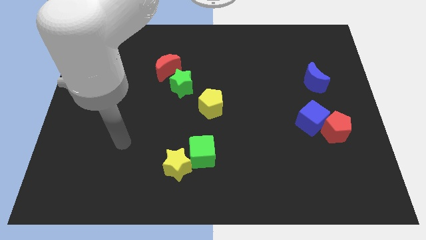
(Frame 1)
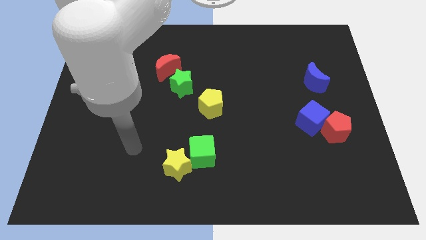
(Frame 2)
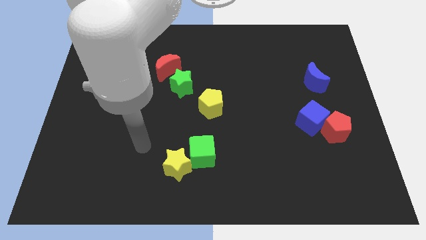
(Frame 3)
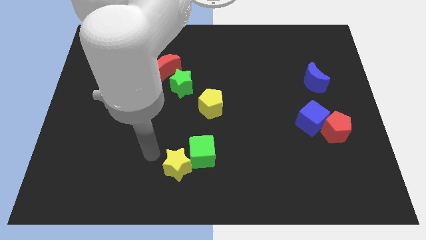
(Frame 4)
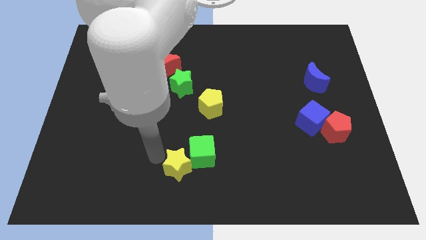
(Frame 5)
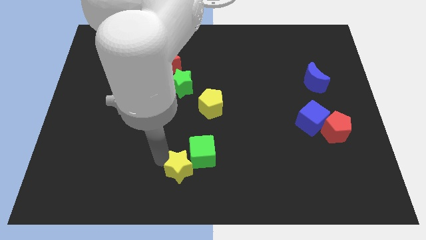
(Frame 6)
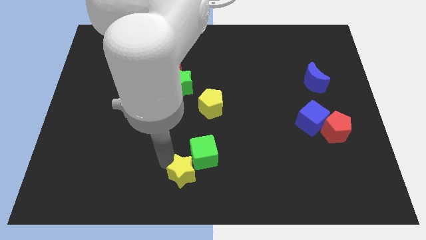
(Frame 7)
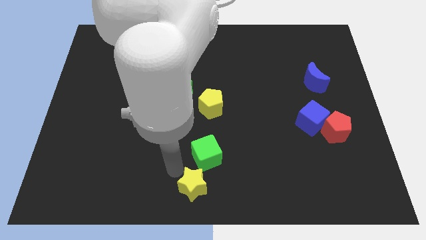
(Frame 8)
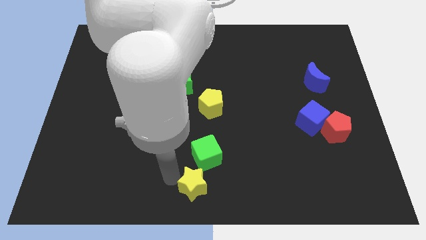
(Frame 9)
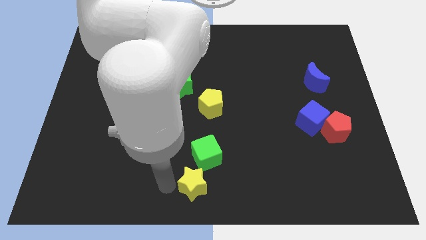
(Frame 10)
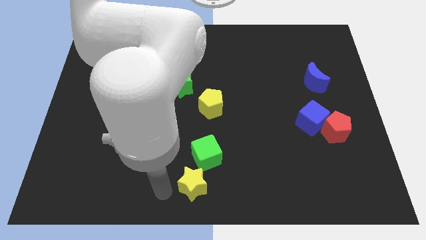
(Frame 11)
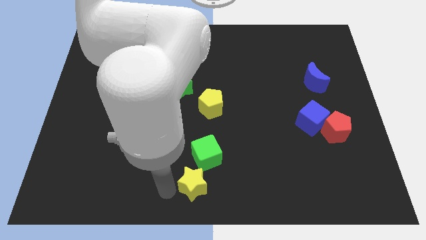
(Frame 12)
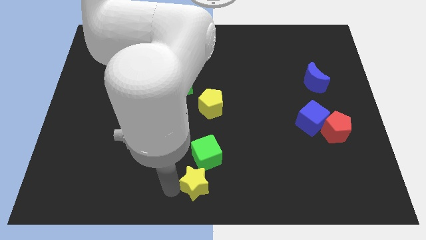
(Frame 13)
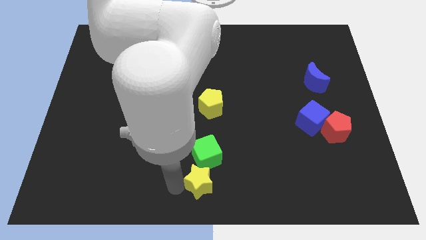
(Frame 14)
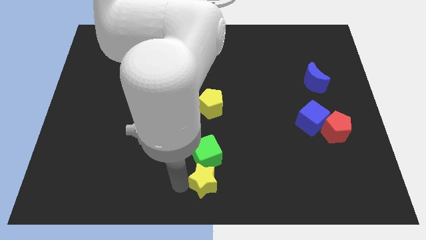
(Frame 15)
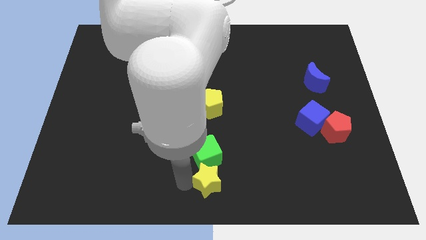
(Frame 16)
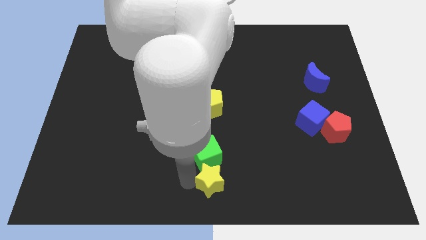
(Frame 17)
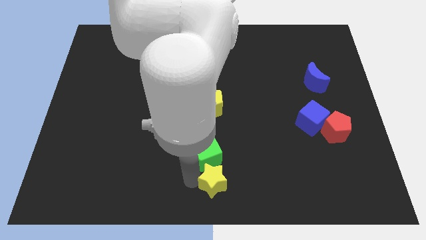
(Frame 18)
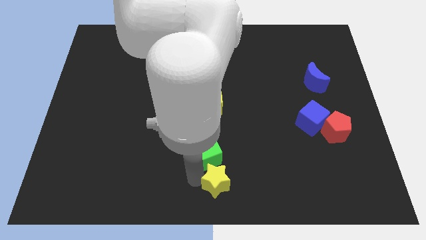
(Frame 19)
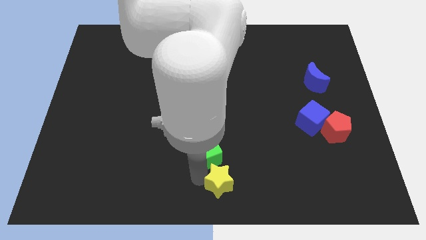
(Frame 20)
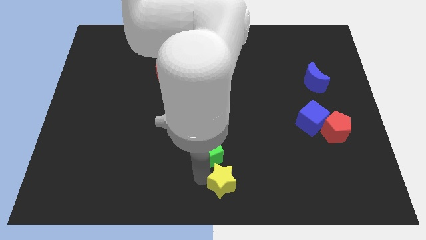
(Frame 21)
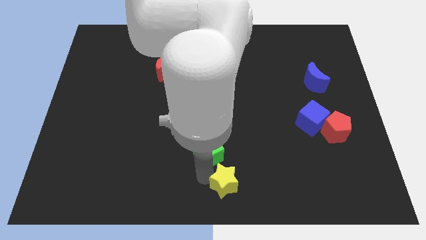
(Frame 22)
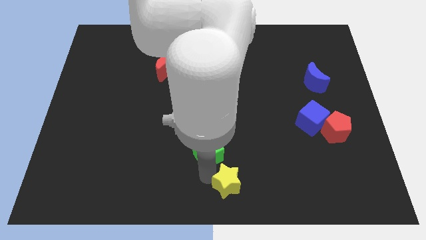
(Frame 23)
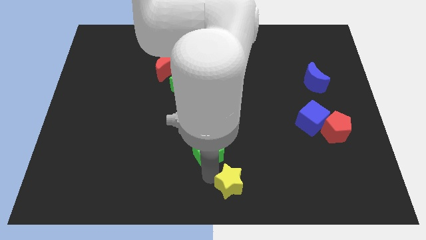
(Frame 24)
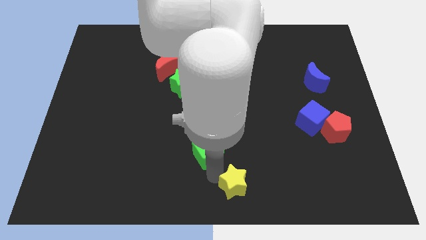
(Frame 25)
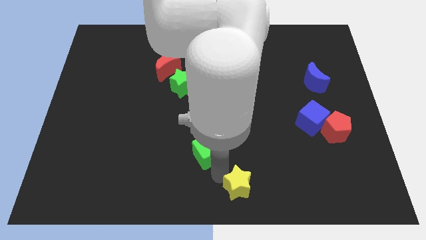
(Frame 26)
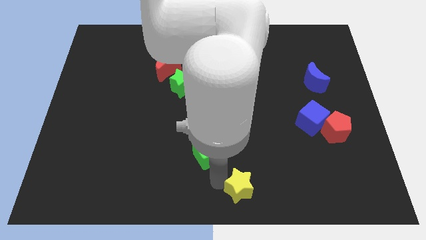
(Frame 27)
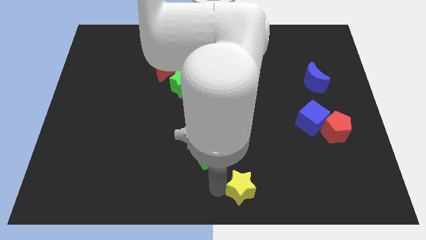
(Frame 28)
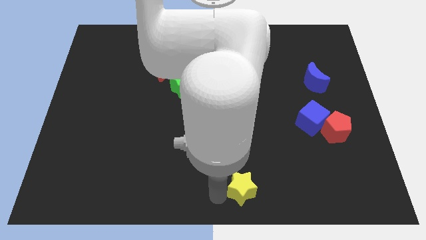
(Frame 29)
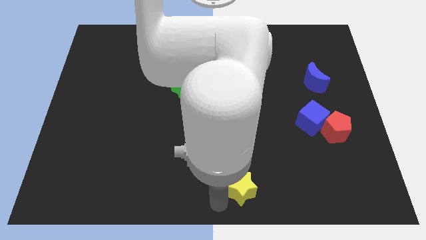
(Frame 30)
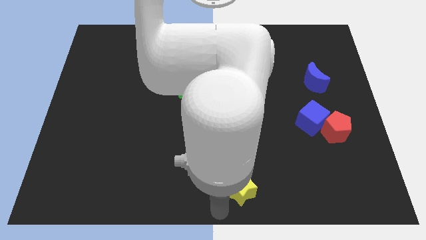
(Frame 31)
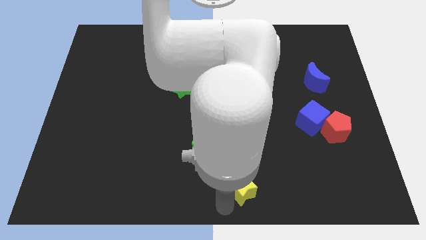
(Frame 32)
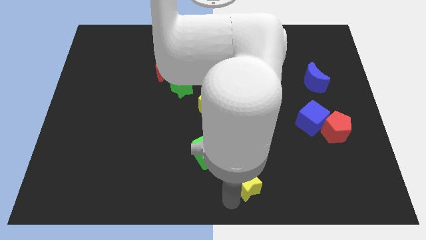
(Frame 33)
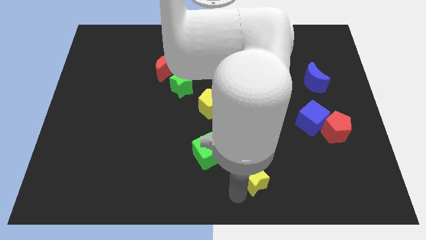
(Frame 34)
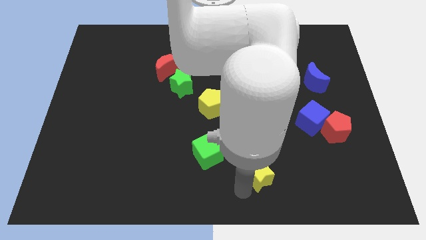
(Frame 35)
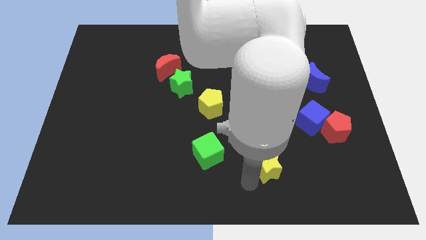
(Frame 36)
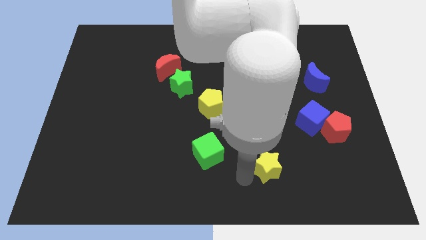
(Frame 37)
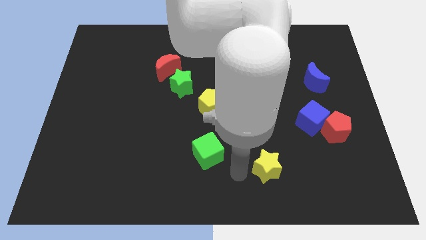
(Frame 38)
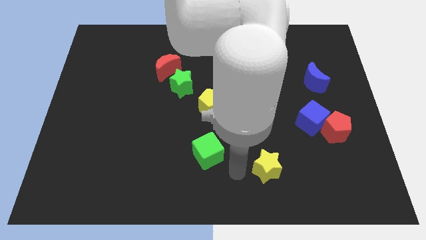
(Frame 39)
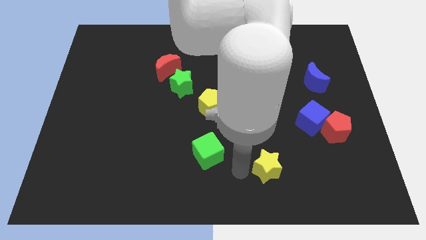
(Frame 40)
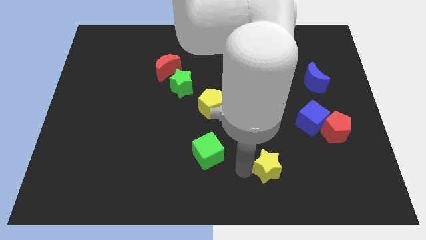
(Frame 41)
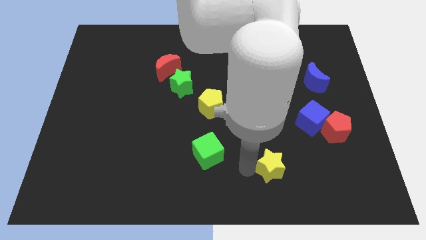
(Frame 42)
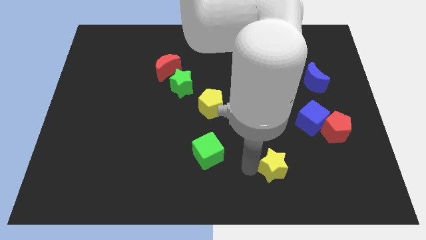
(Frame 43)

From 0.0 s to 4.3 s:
slide the yellow star to the right

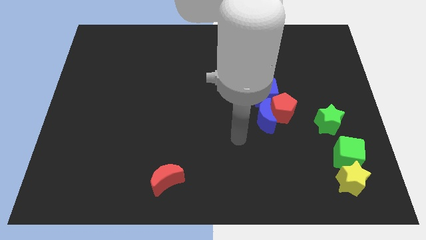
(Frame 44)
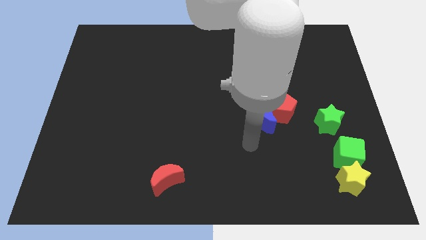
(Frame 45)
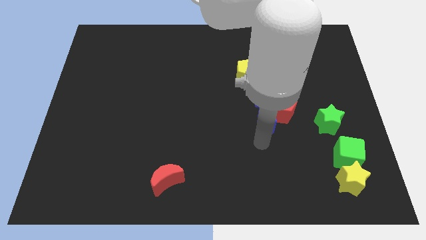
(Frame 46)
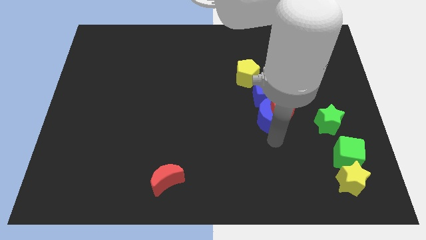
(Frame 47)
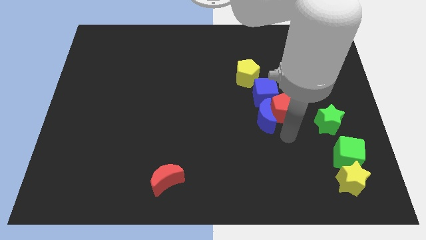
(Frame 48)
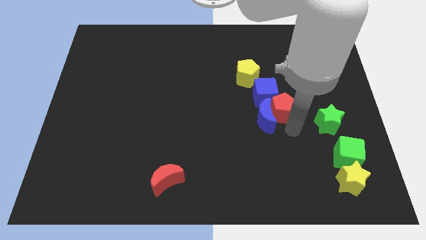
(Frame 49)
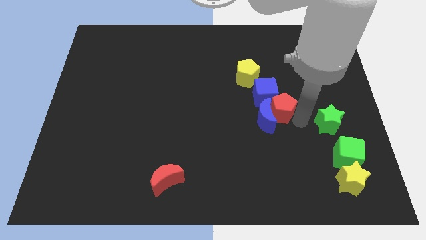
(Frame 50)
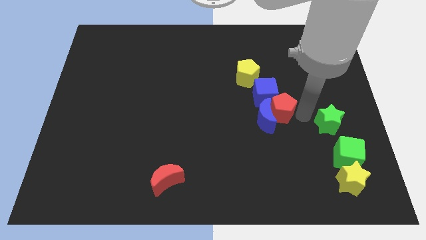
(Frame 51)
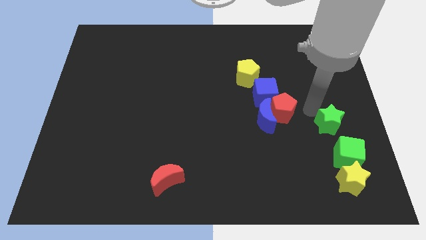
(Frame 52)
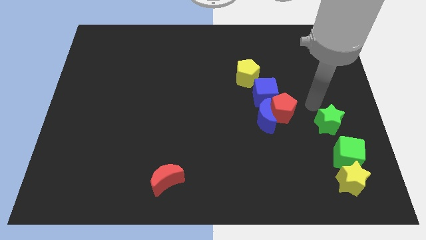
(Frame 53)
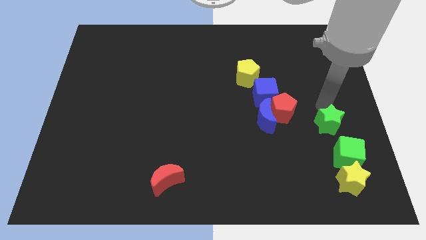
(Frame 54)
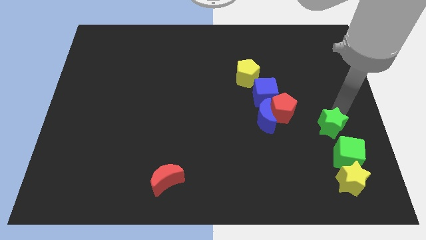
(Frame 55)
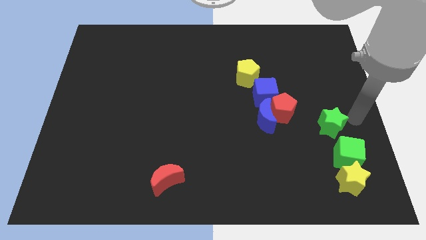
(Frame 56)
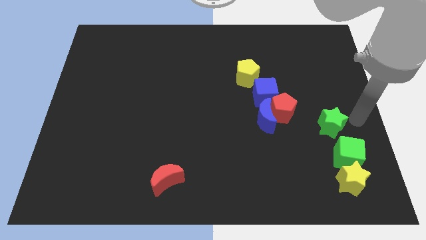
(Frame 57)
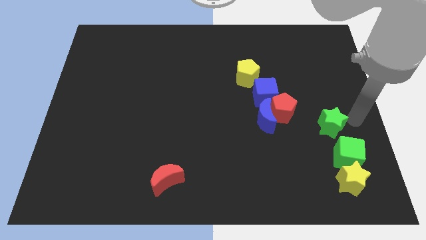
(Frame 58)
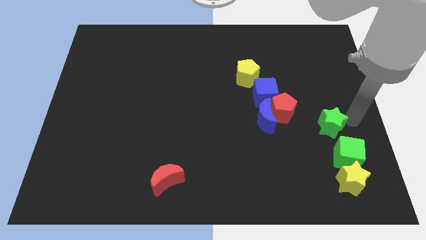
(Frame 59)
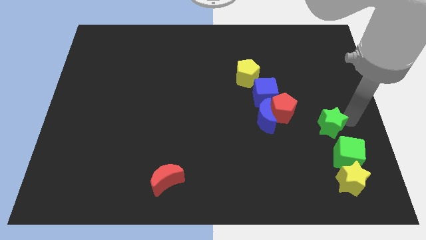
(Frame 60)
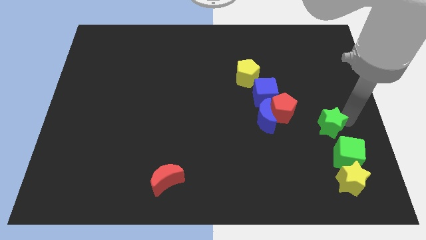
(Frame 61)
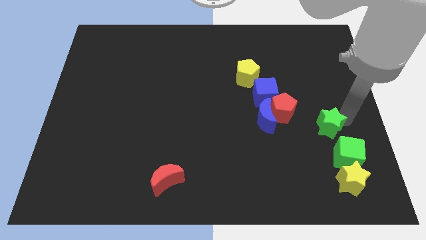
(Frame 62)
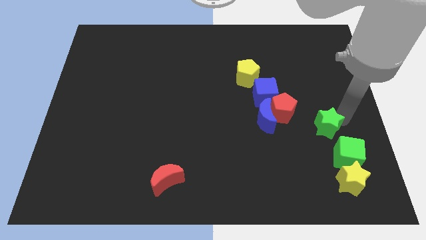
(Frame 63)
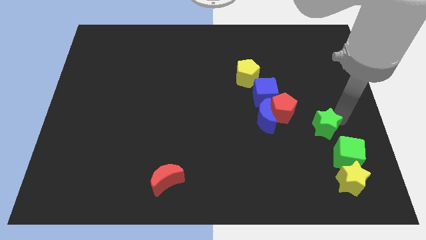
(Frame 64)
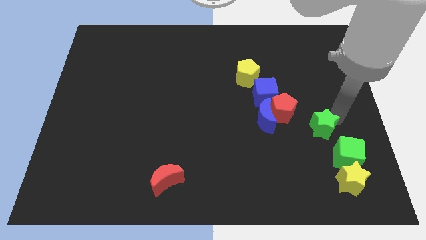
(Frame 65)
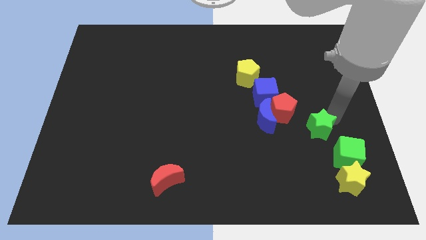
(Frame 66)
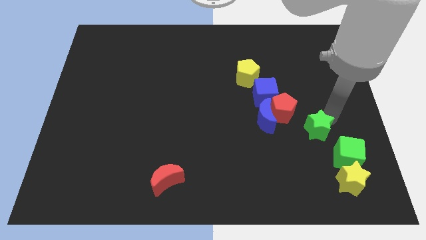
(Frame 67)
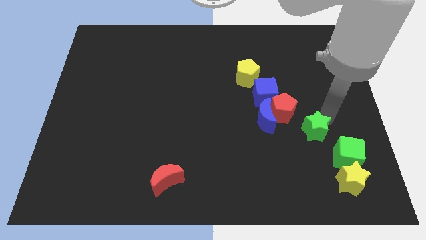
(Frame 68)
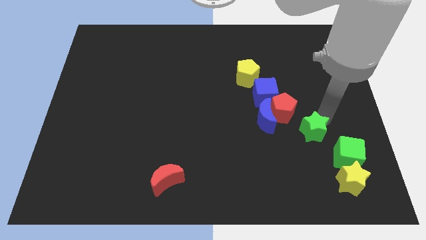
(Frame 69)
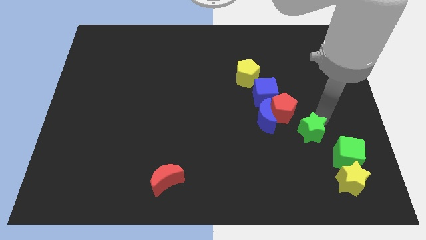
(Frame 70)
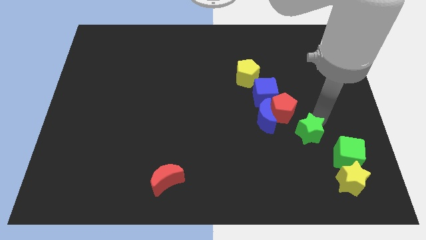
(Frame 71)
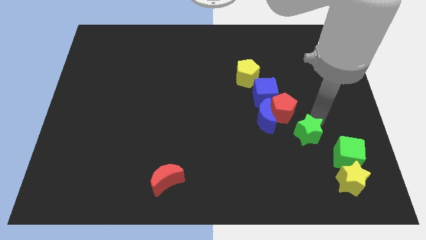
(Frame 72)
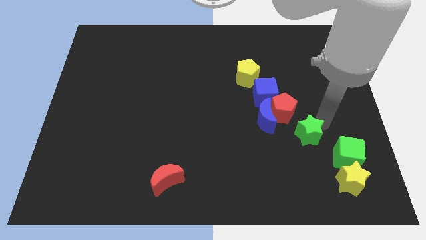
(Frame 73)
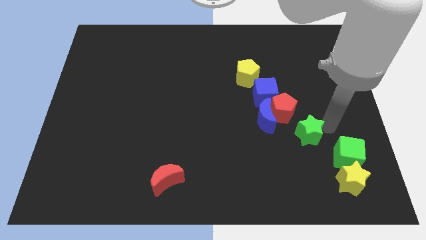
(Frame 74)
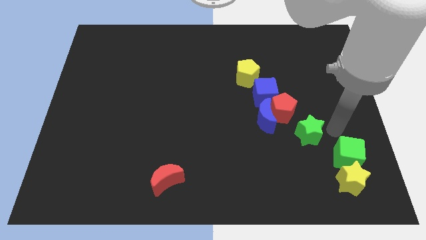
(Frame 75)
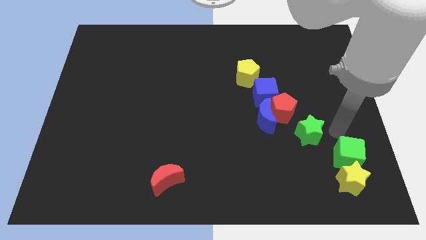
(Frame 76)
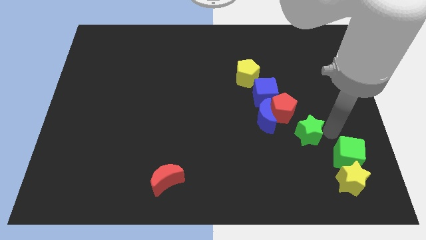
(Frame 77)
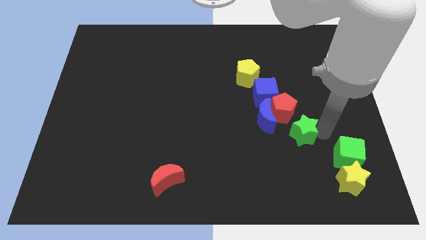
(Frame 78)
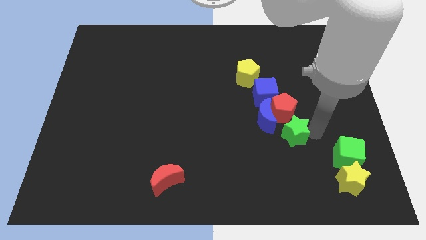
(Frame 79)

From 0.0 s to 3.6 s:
push the green star a bit left
